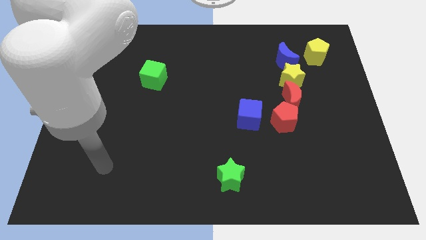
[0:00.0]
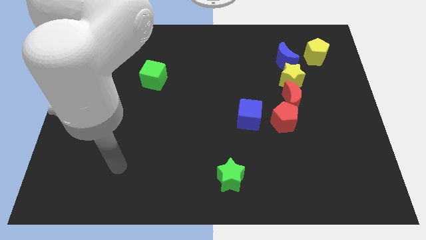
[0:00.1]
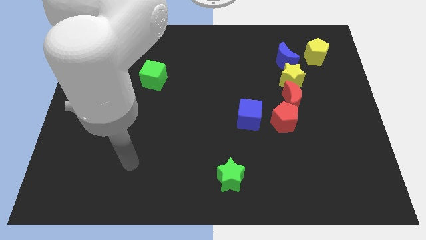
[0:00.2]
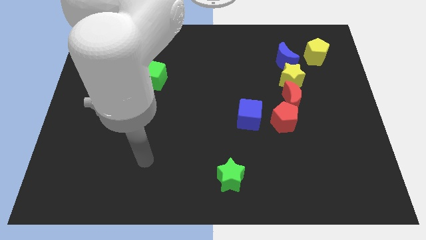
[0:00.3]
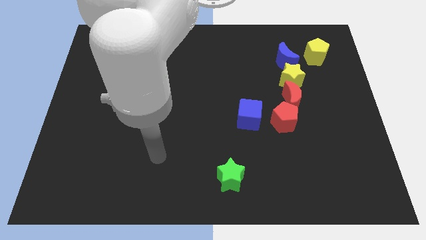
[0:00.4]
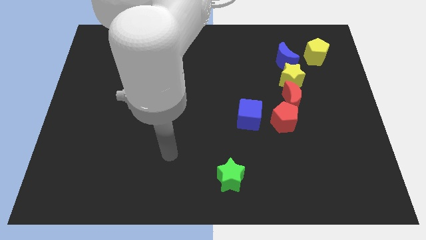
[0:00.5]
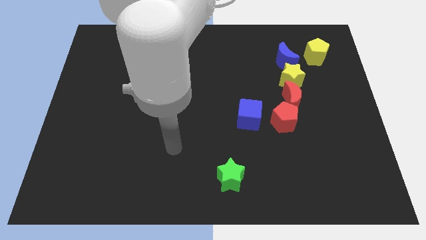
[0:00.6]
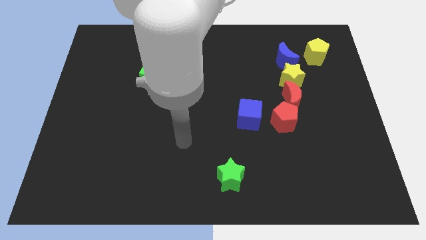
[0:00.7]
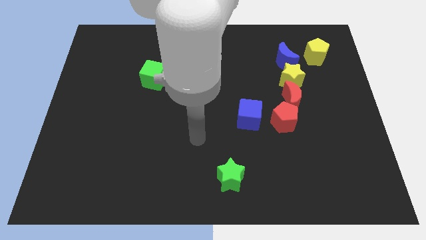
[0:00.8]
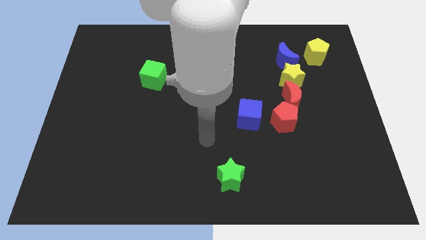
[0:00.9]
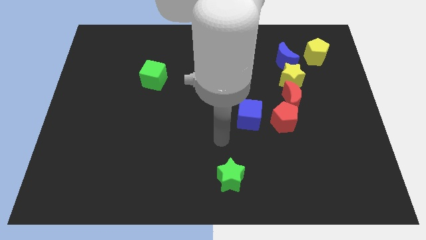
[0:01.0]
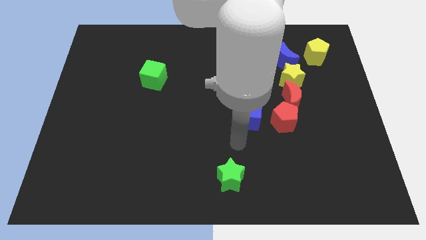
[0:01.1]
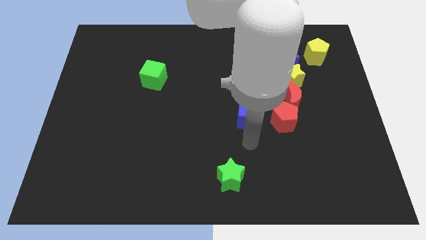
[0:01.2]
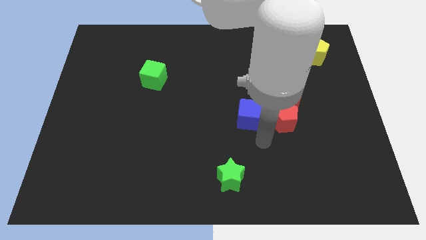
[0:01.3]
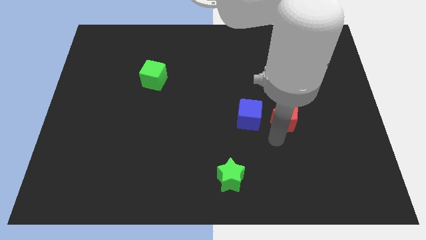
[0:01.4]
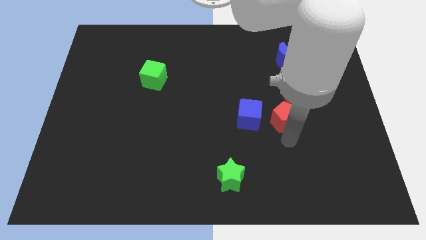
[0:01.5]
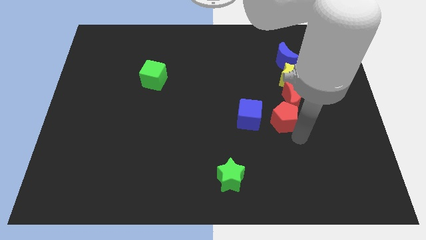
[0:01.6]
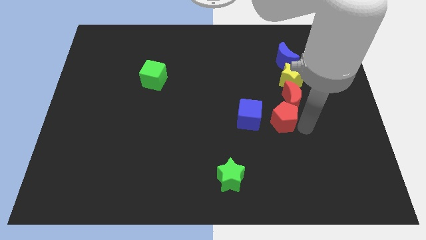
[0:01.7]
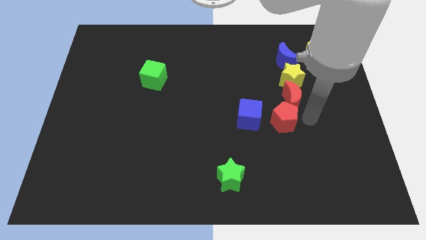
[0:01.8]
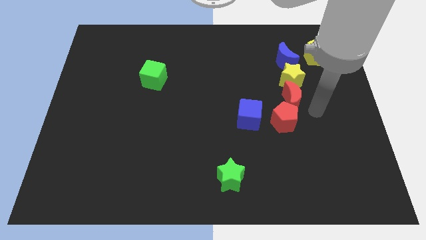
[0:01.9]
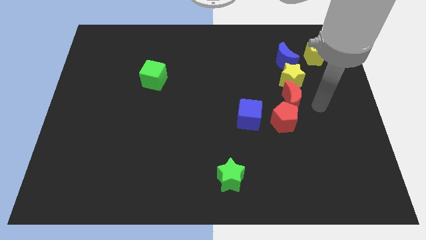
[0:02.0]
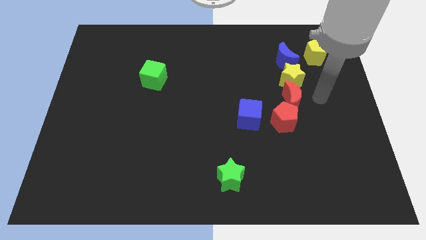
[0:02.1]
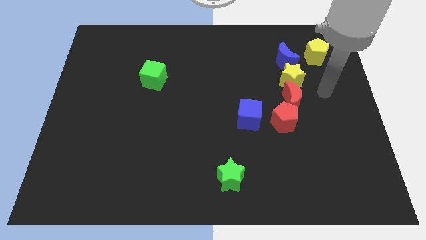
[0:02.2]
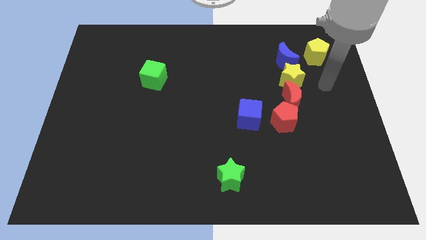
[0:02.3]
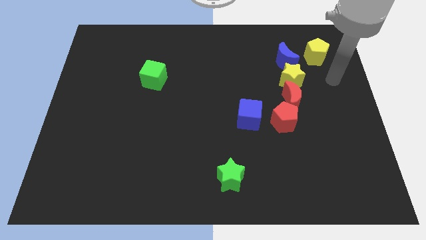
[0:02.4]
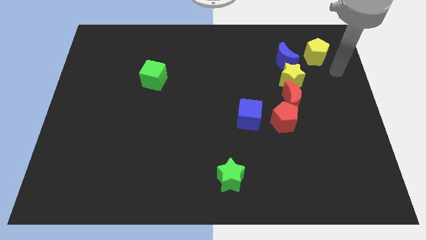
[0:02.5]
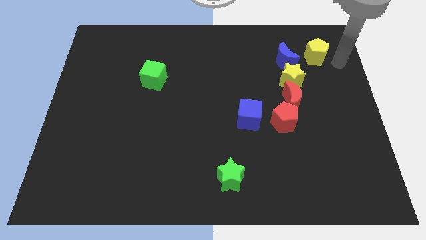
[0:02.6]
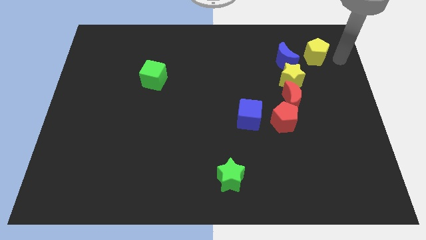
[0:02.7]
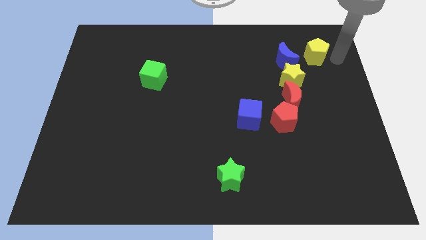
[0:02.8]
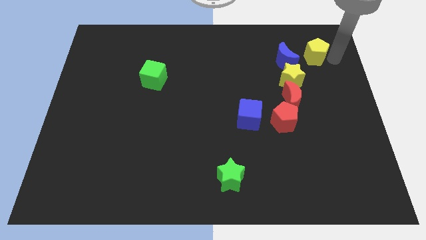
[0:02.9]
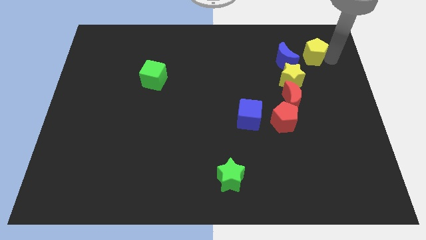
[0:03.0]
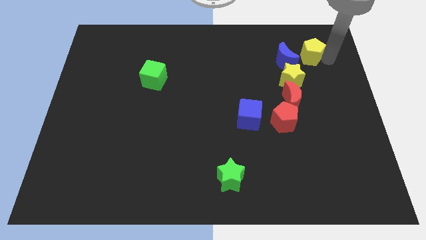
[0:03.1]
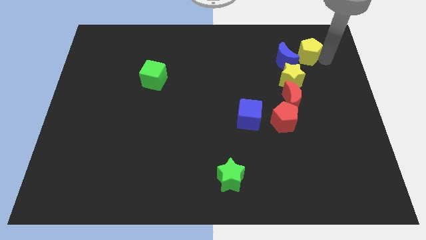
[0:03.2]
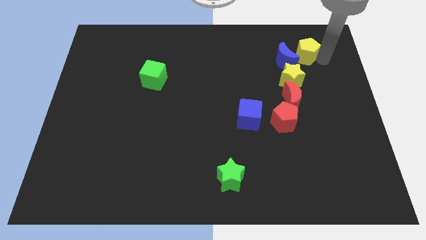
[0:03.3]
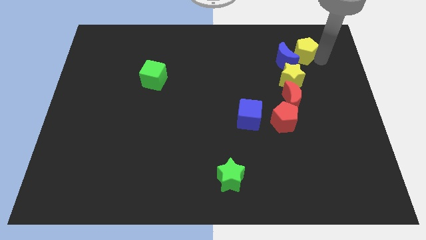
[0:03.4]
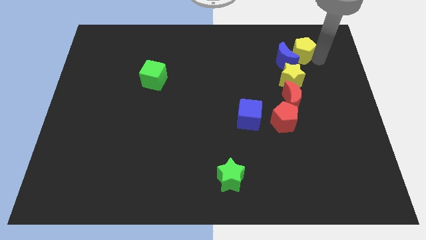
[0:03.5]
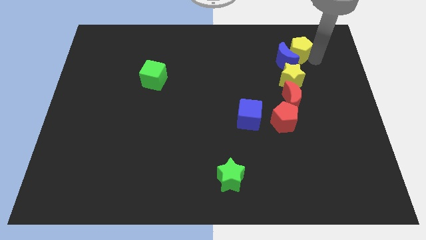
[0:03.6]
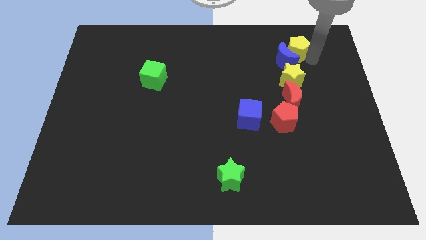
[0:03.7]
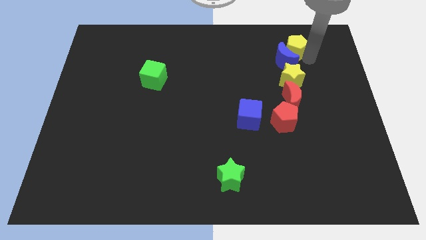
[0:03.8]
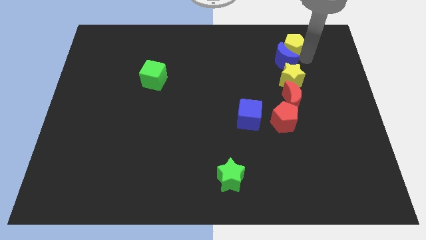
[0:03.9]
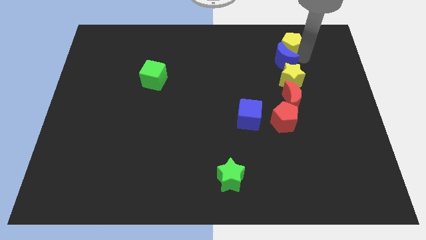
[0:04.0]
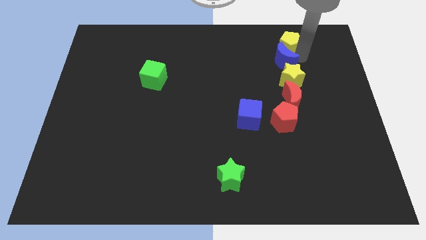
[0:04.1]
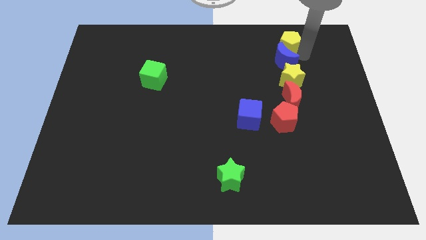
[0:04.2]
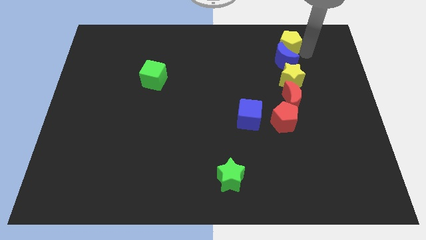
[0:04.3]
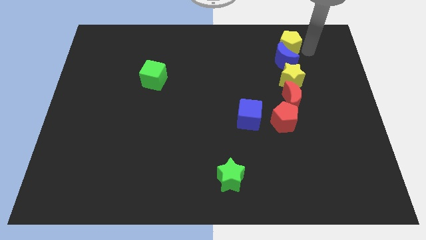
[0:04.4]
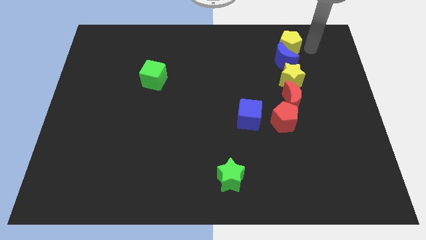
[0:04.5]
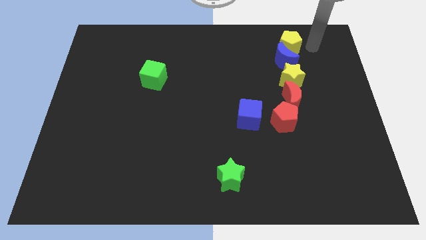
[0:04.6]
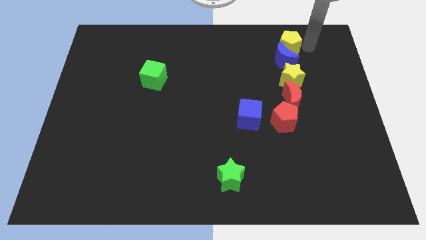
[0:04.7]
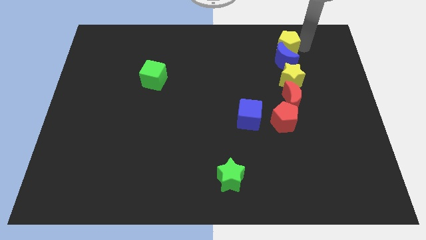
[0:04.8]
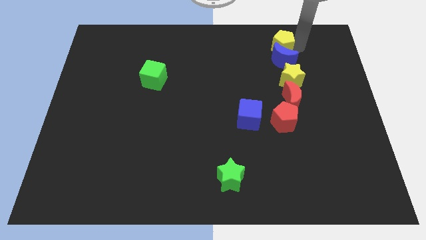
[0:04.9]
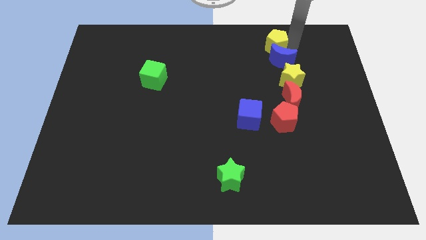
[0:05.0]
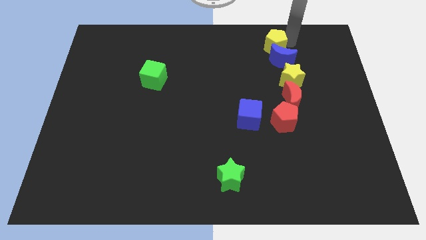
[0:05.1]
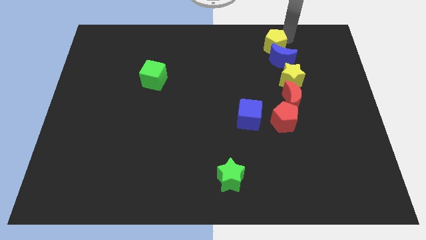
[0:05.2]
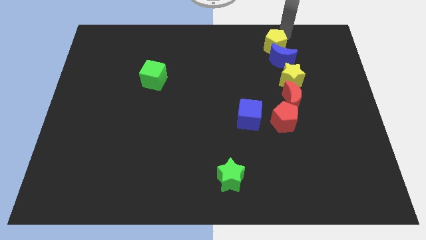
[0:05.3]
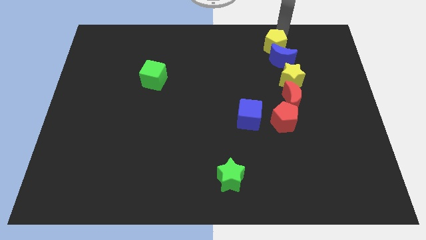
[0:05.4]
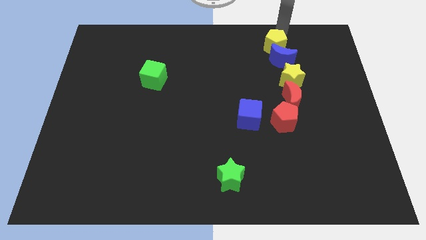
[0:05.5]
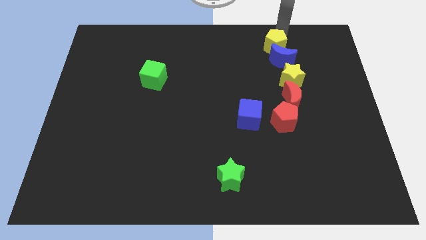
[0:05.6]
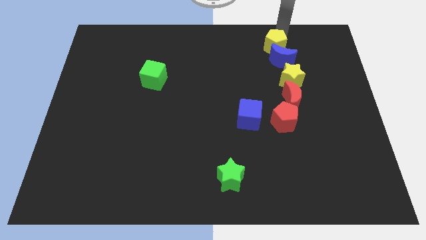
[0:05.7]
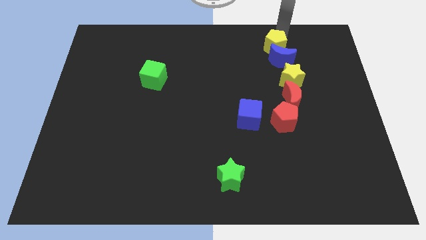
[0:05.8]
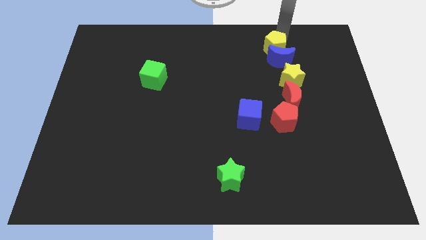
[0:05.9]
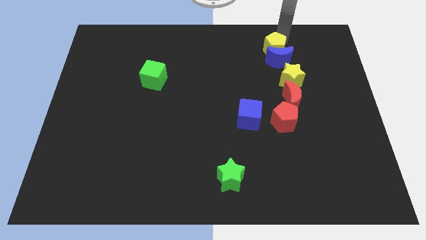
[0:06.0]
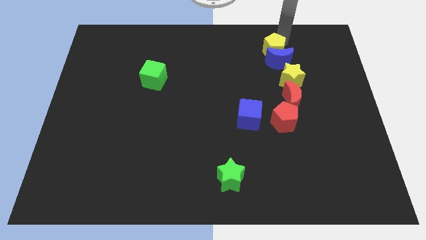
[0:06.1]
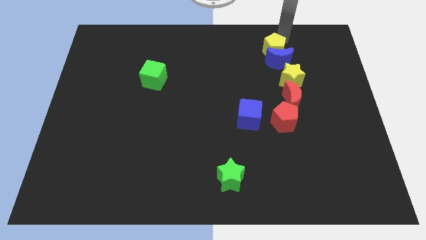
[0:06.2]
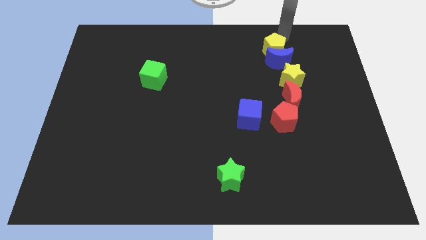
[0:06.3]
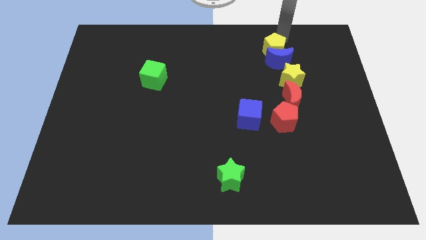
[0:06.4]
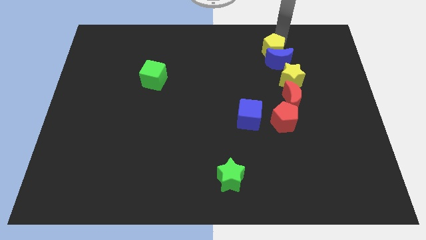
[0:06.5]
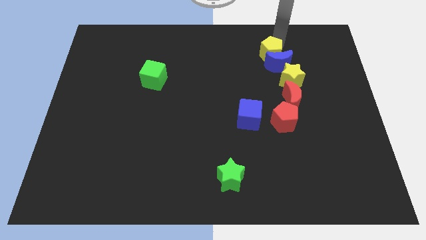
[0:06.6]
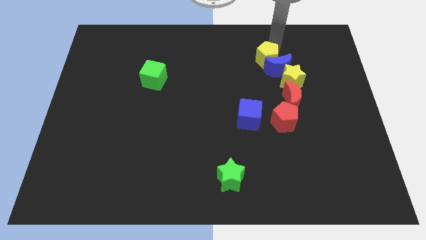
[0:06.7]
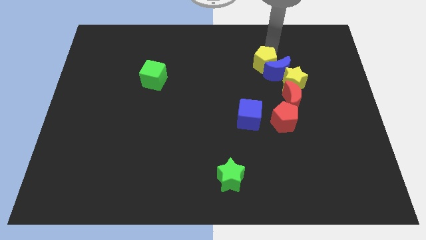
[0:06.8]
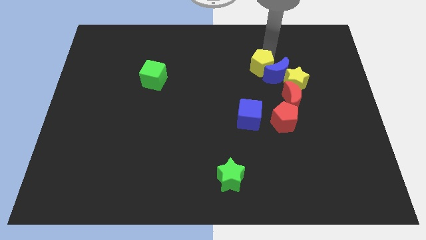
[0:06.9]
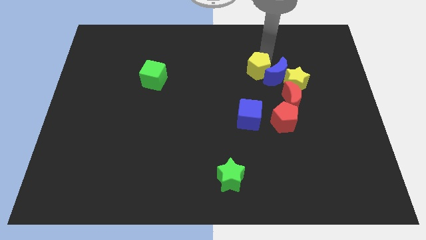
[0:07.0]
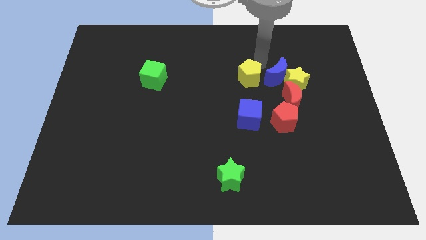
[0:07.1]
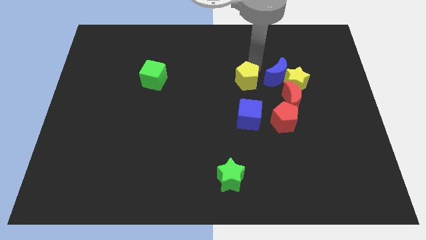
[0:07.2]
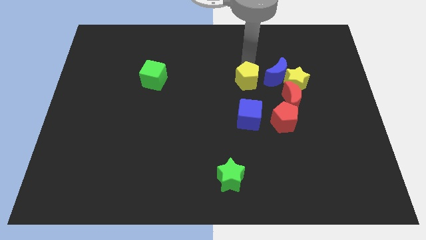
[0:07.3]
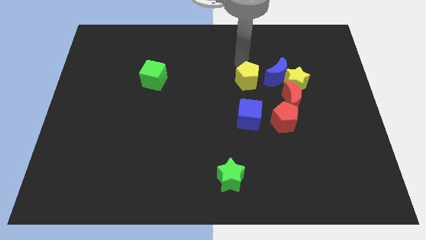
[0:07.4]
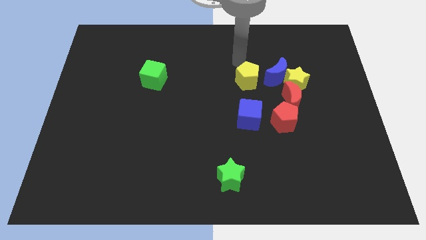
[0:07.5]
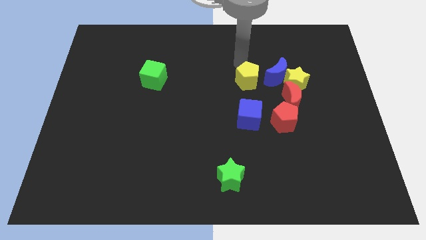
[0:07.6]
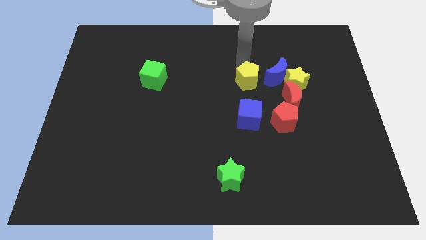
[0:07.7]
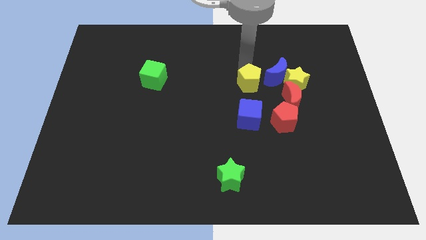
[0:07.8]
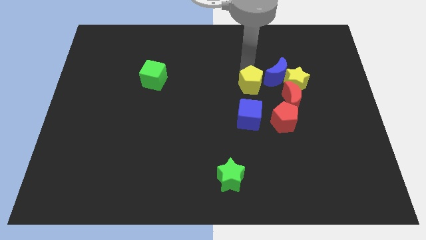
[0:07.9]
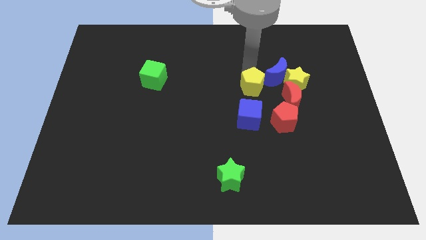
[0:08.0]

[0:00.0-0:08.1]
move the yellow pentagon to the top left of the red pentagon
